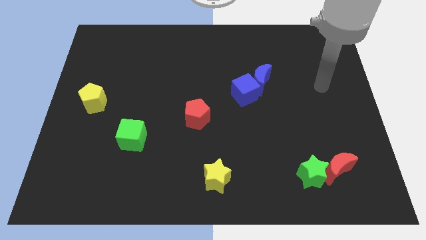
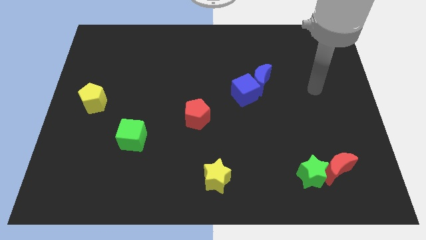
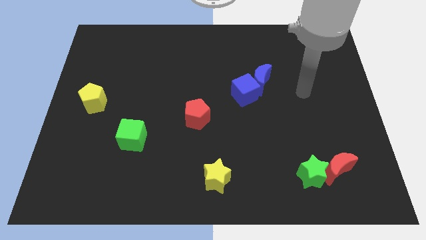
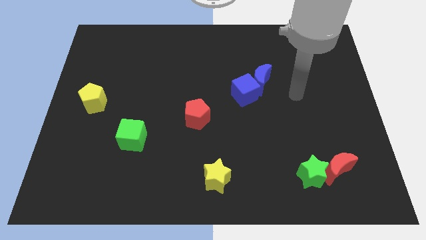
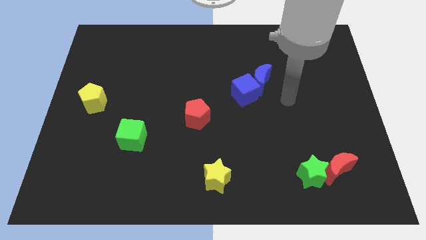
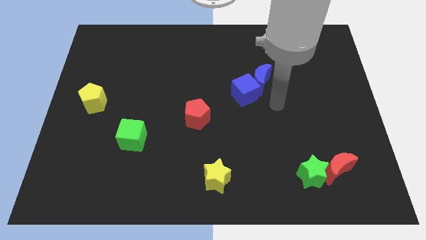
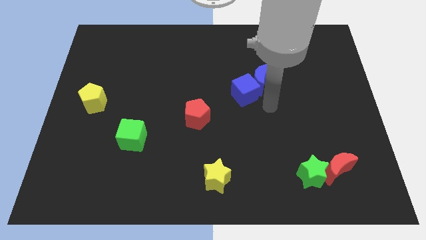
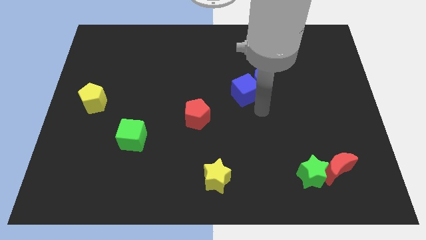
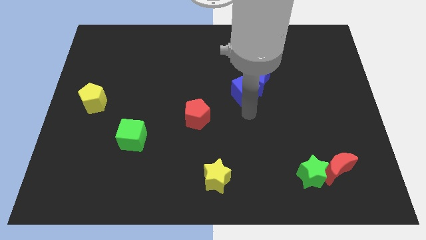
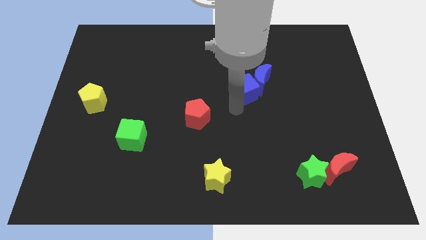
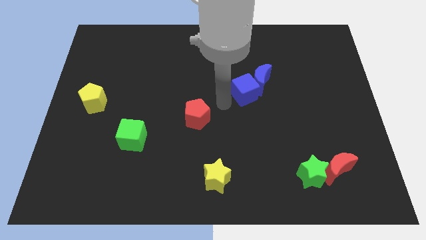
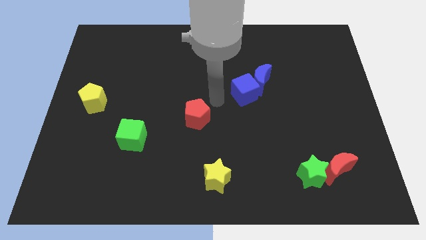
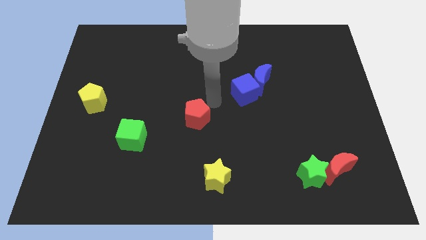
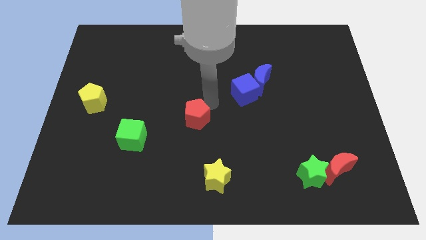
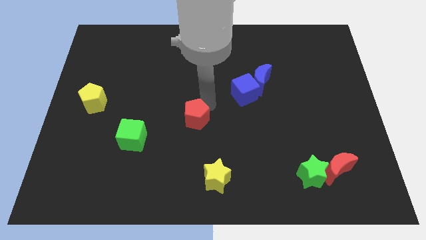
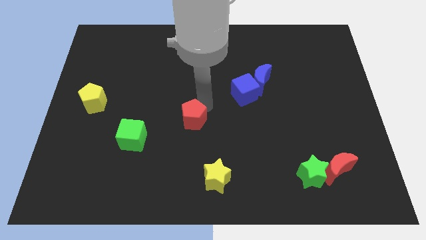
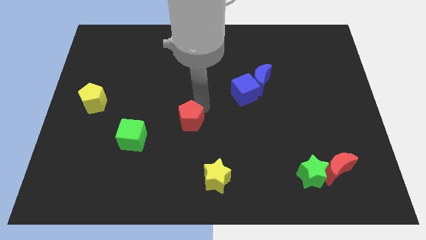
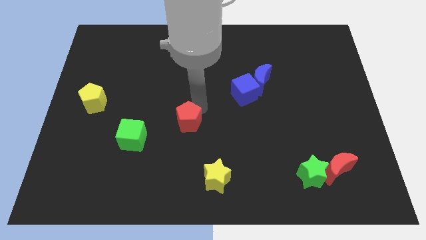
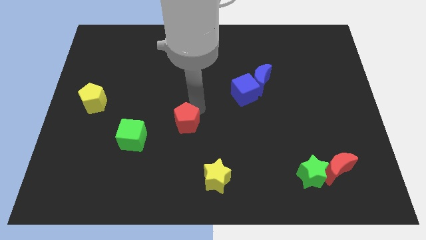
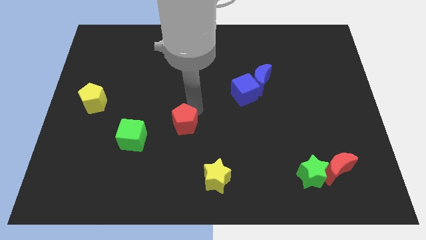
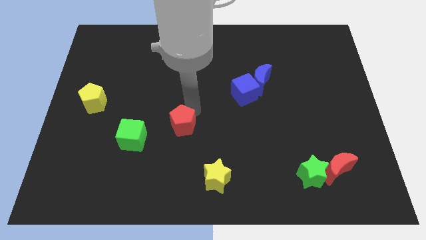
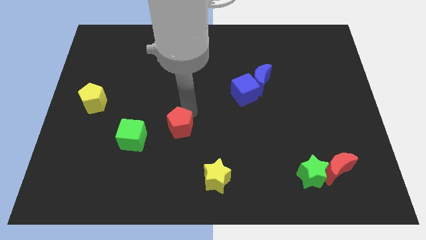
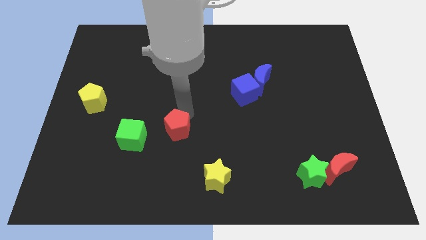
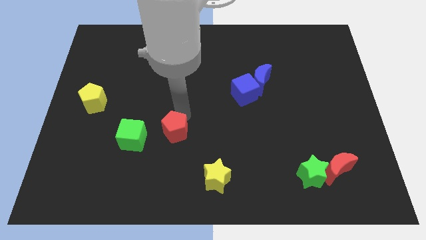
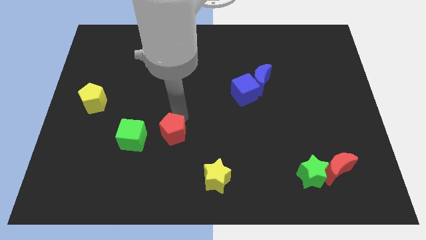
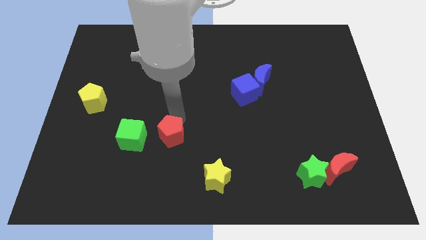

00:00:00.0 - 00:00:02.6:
slightly push the red pentagon downwards and to the left diagonally

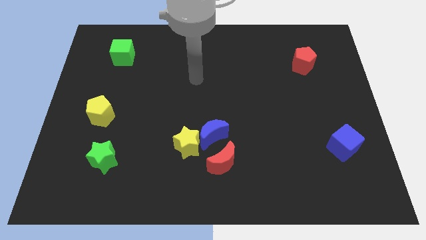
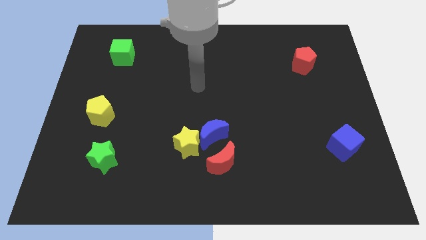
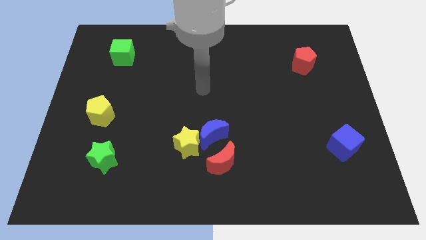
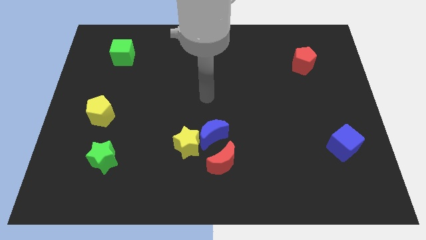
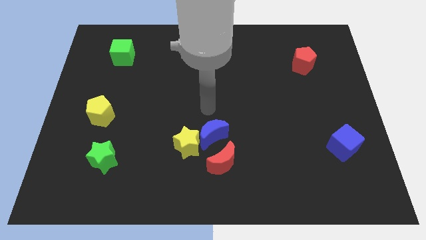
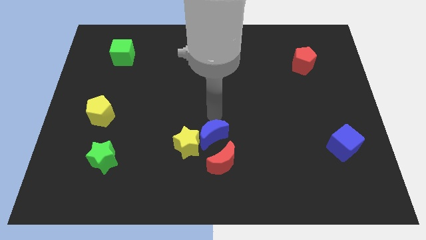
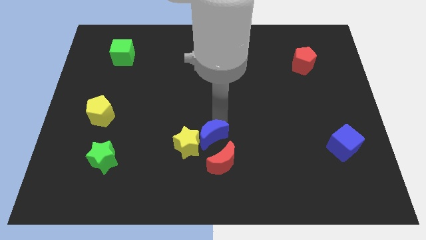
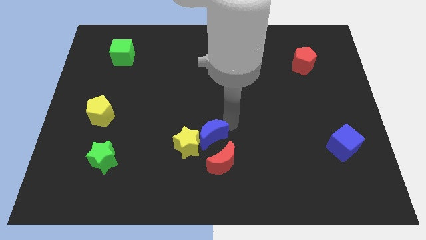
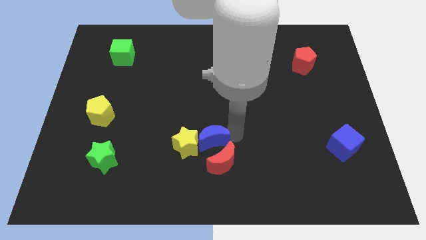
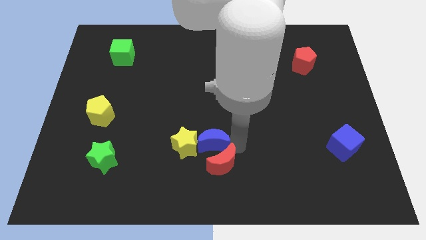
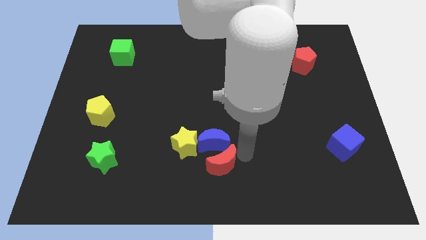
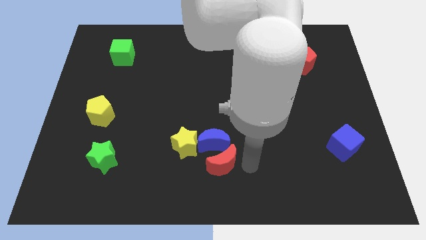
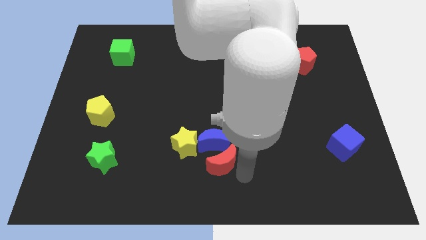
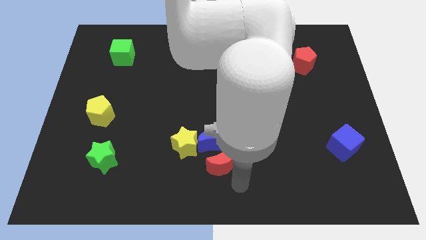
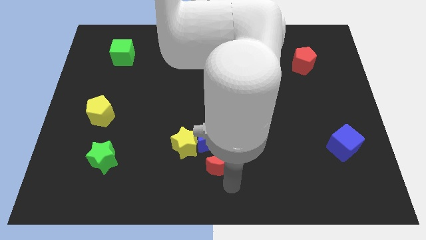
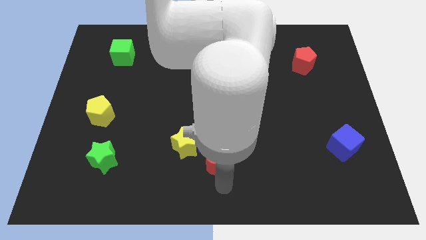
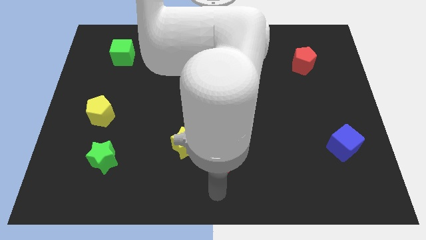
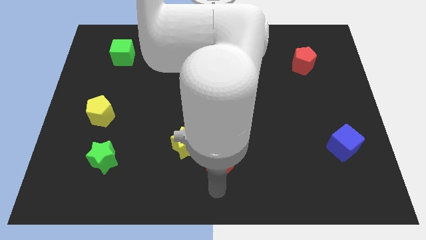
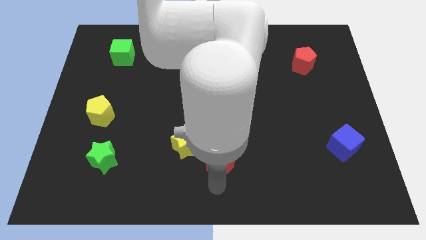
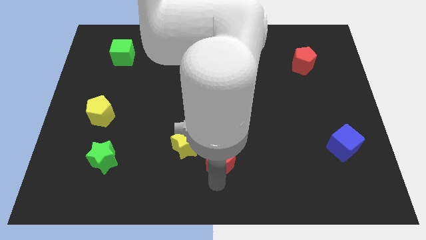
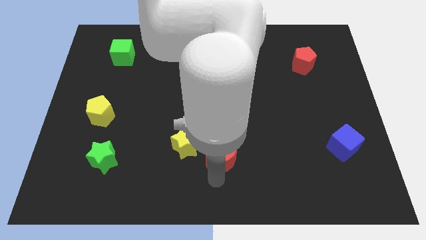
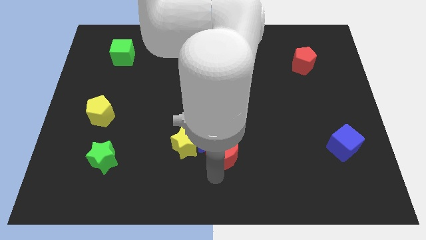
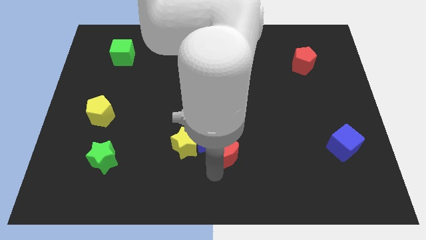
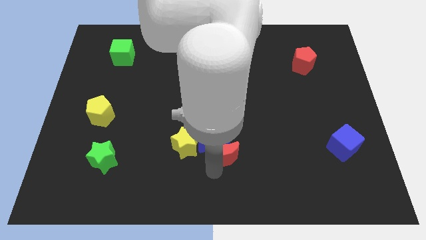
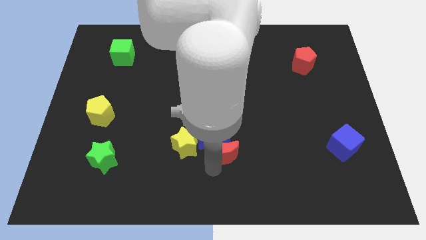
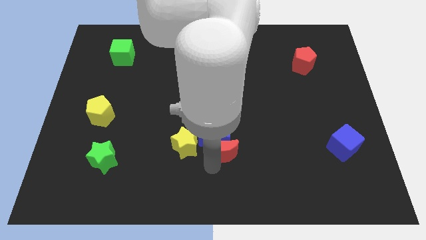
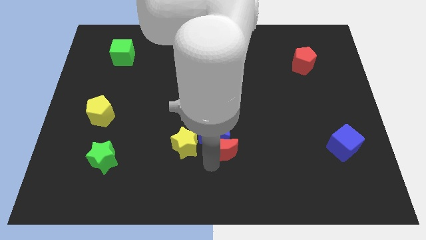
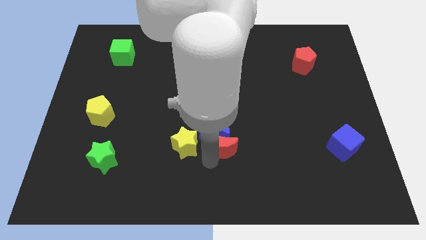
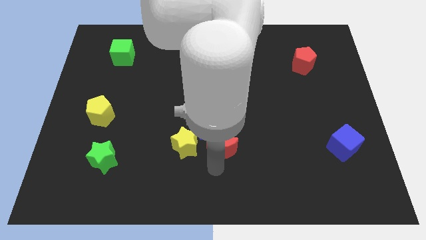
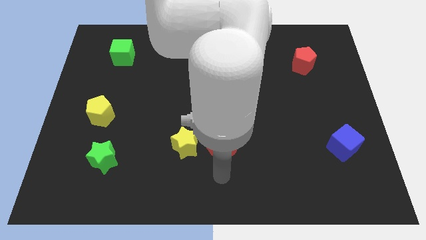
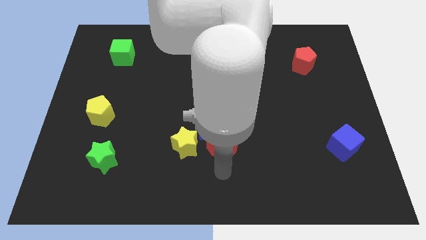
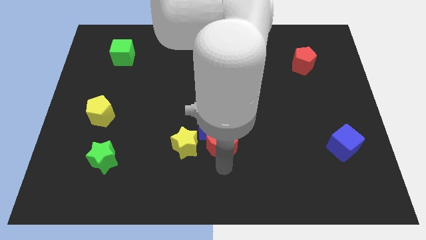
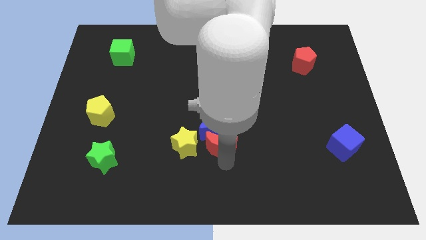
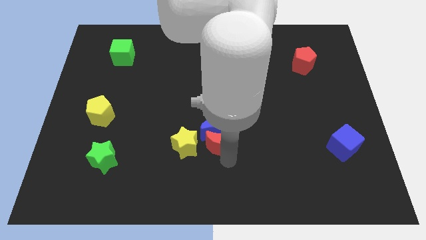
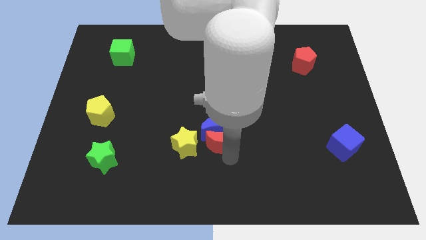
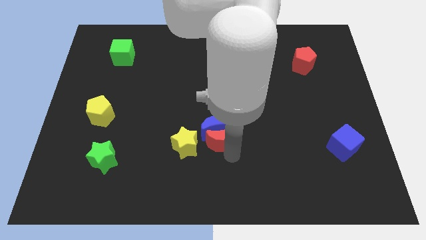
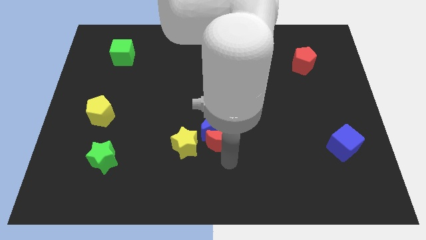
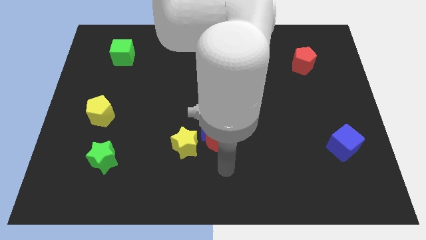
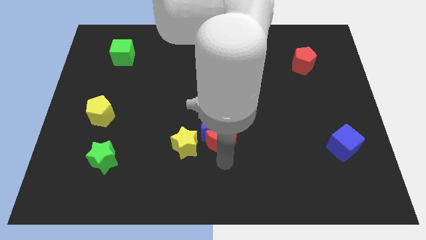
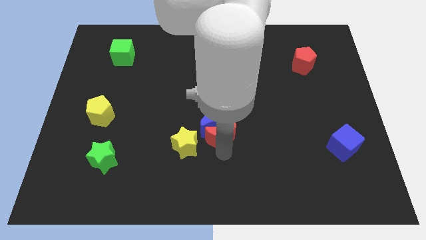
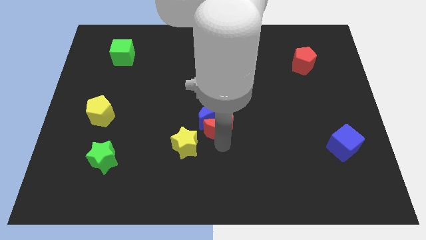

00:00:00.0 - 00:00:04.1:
slide the red moon a little bit up

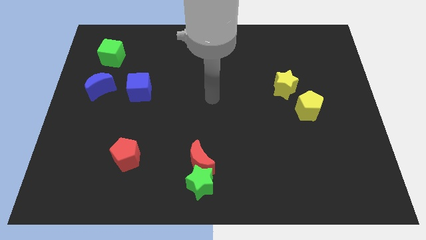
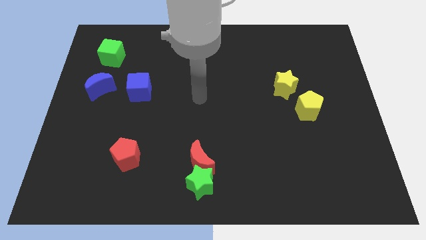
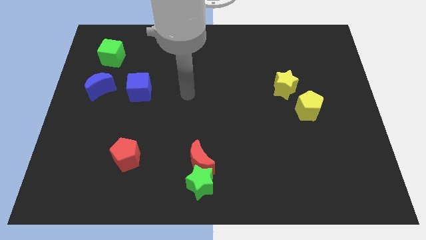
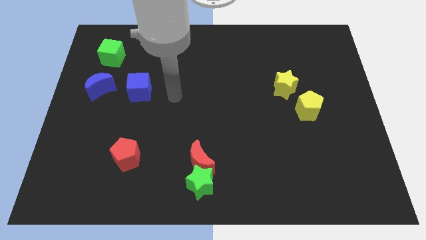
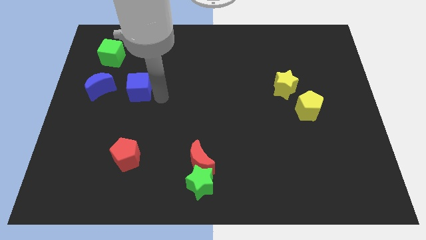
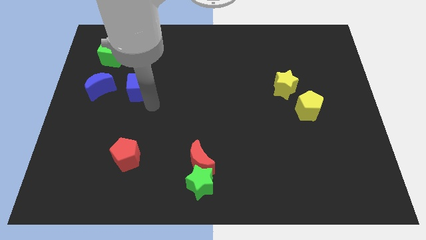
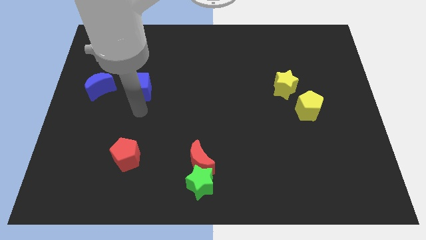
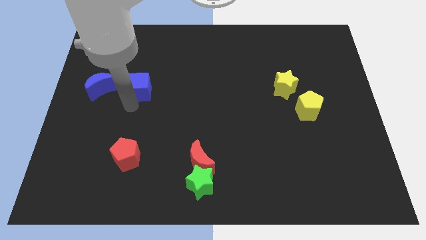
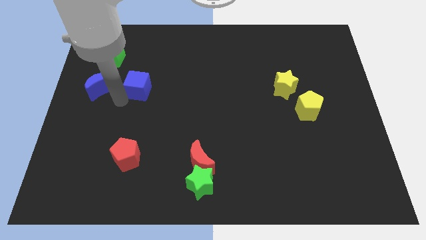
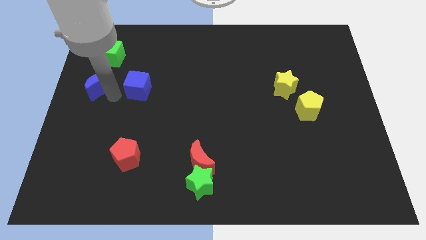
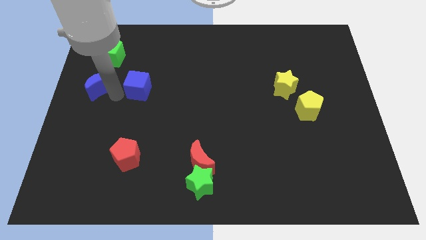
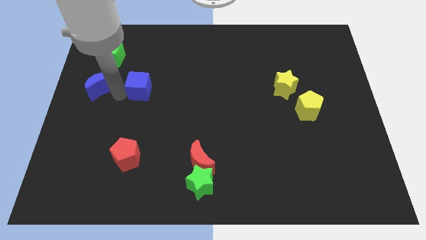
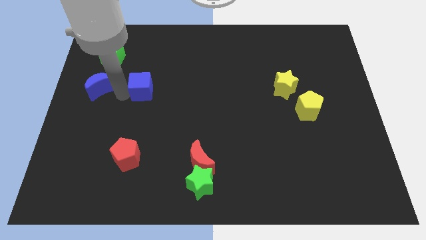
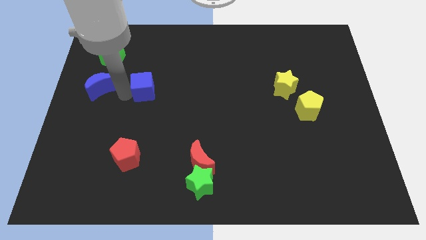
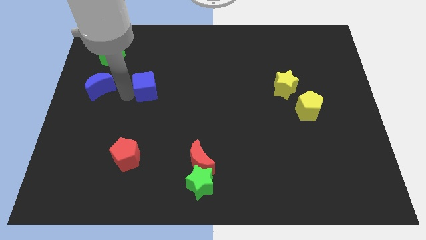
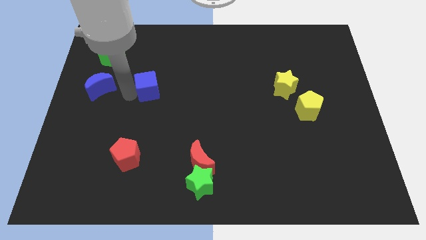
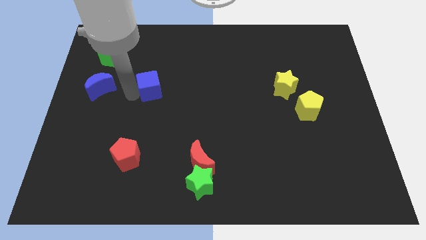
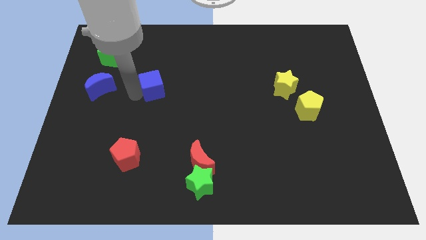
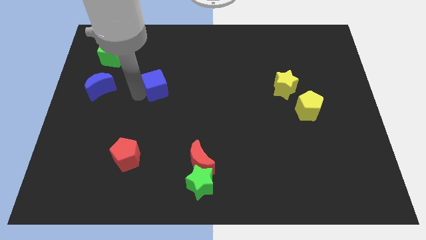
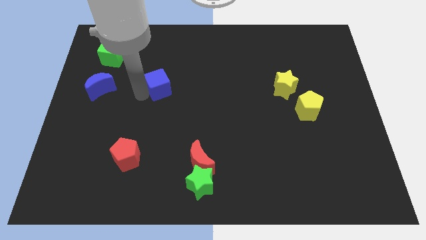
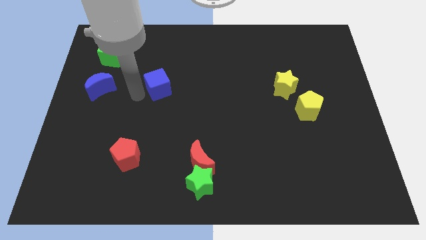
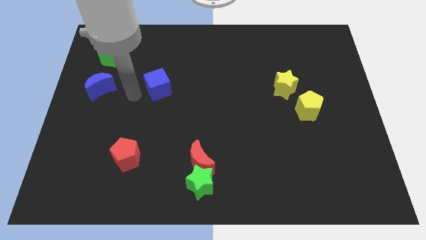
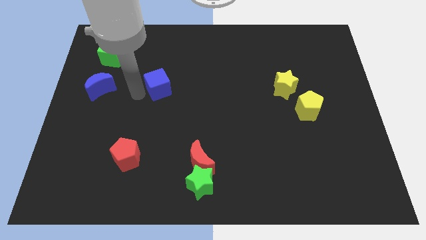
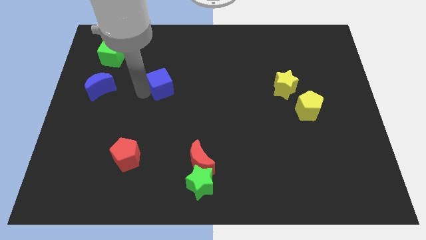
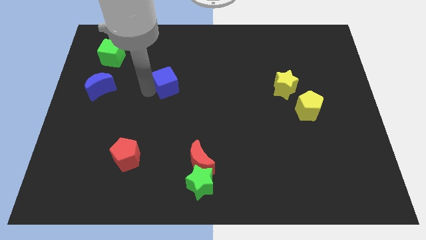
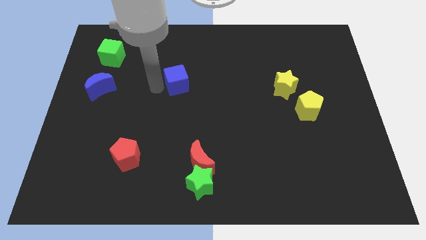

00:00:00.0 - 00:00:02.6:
slightly push the blue cube right
